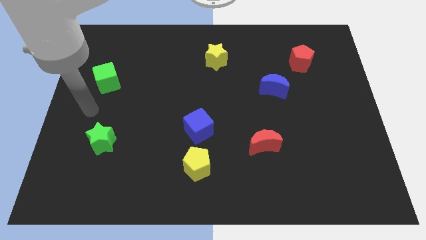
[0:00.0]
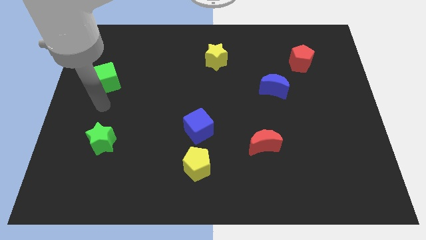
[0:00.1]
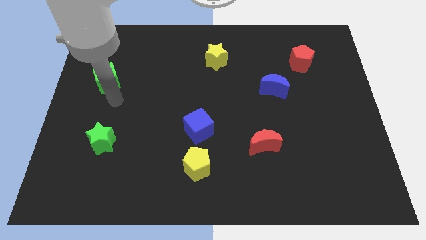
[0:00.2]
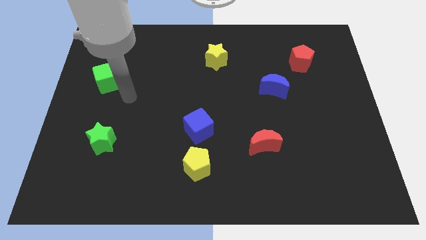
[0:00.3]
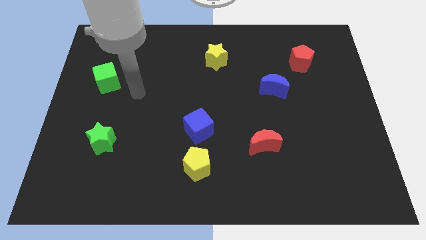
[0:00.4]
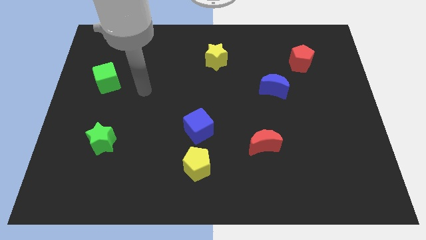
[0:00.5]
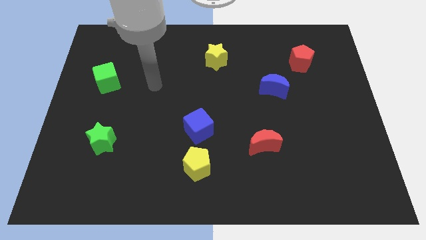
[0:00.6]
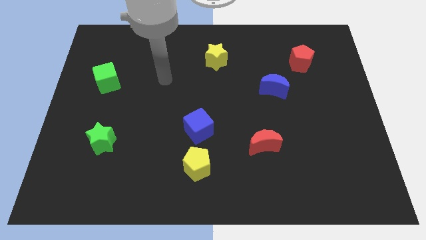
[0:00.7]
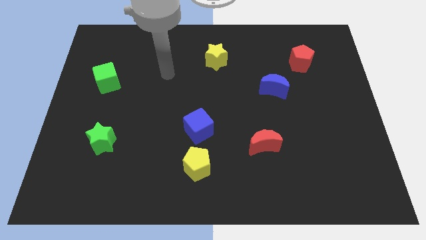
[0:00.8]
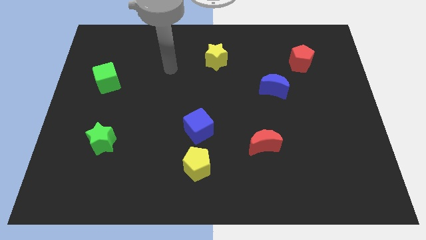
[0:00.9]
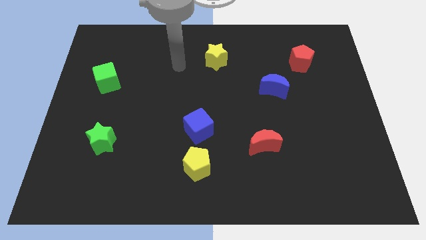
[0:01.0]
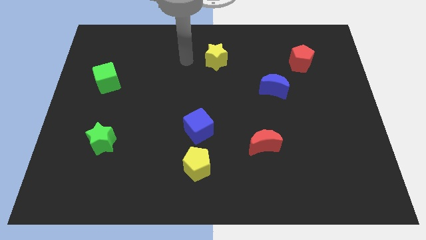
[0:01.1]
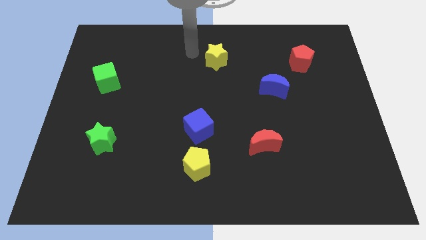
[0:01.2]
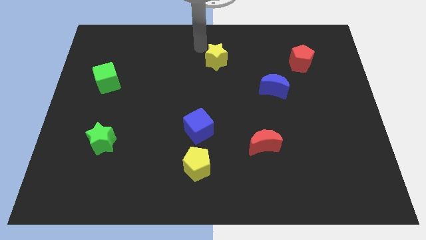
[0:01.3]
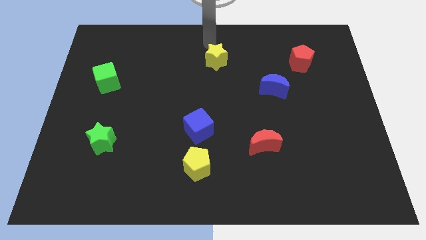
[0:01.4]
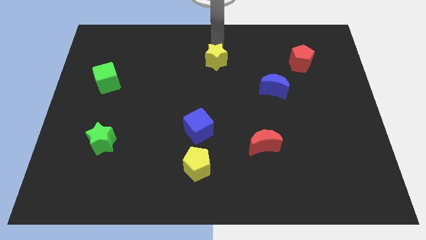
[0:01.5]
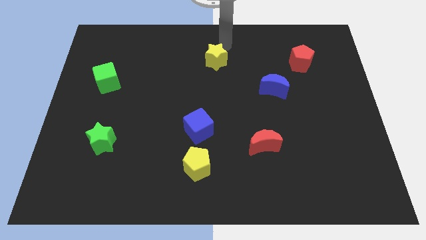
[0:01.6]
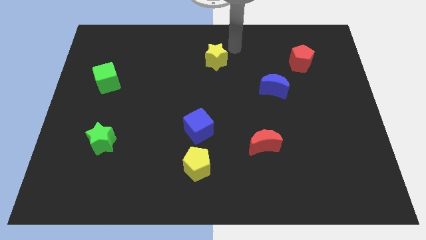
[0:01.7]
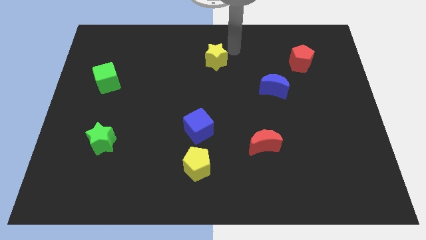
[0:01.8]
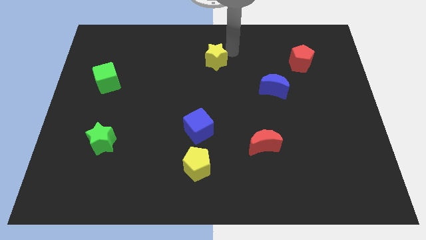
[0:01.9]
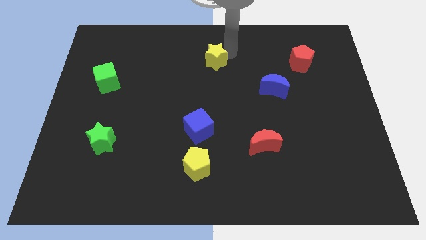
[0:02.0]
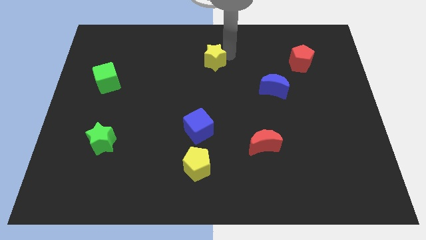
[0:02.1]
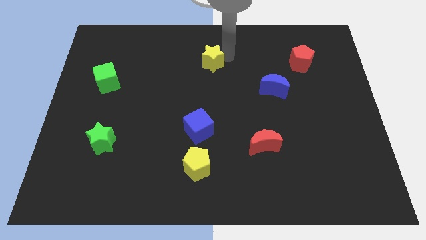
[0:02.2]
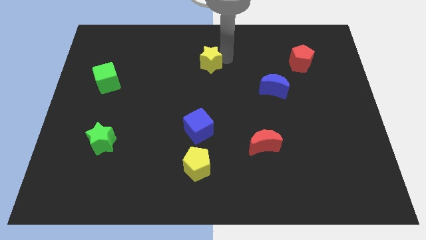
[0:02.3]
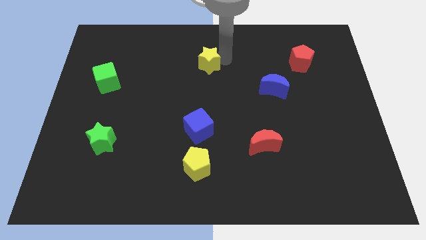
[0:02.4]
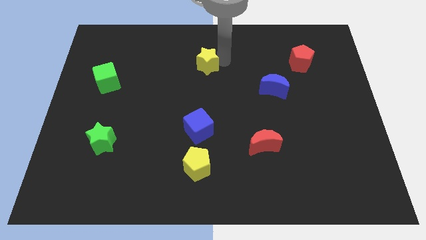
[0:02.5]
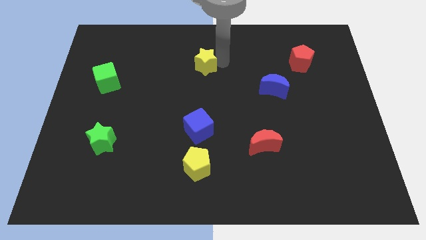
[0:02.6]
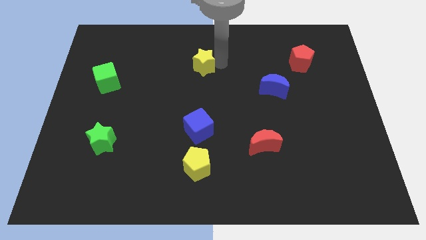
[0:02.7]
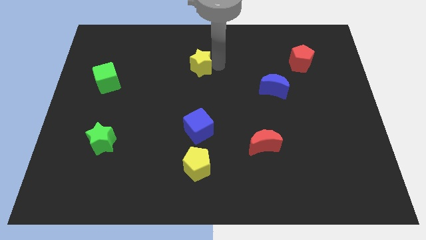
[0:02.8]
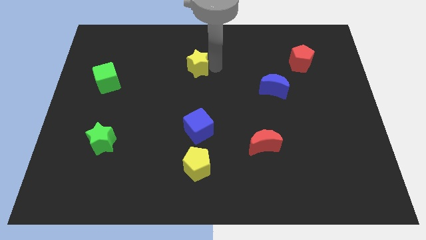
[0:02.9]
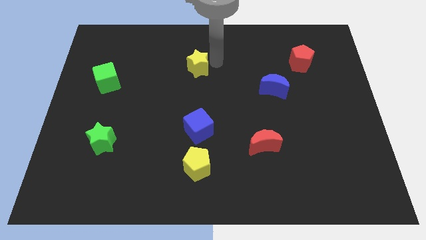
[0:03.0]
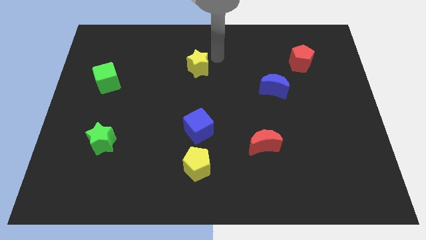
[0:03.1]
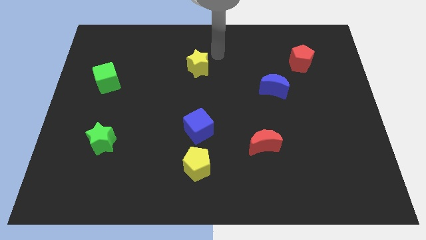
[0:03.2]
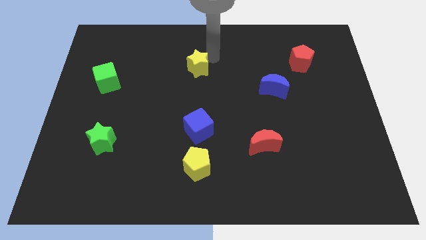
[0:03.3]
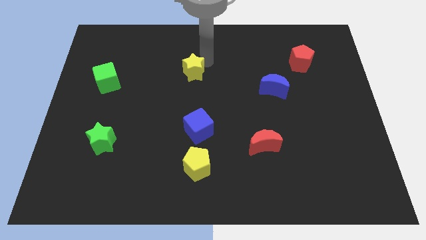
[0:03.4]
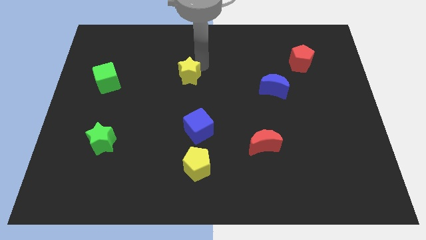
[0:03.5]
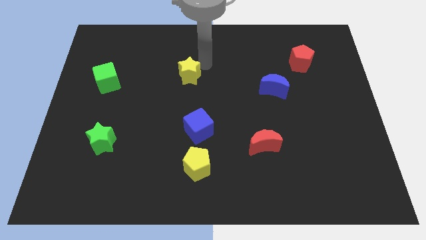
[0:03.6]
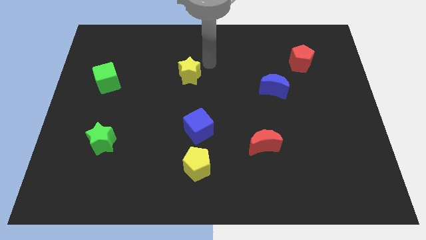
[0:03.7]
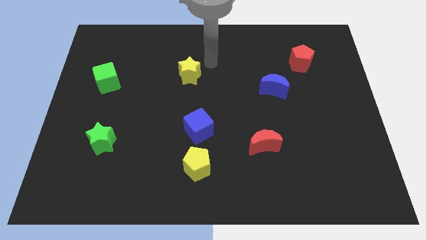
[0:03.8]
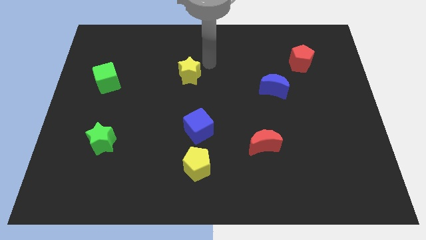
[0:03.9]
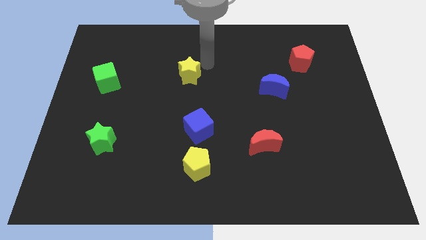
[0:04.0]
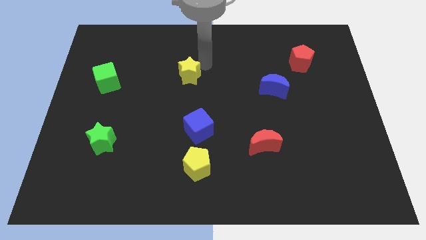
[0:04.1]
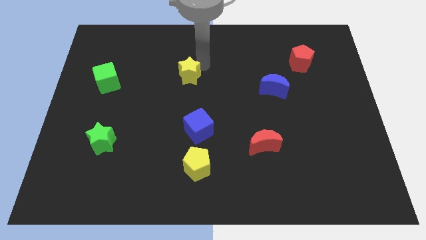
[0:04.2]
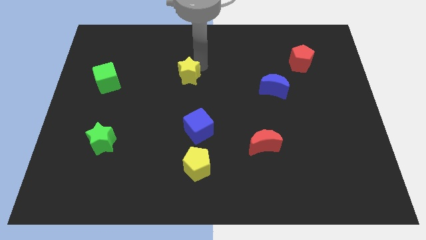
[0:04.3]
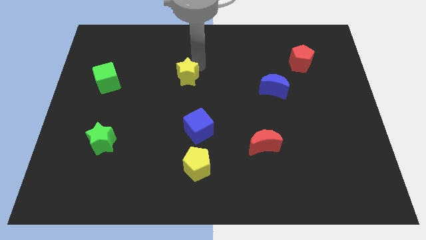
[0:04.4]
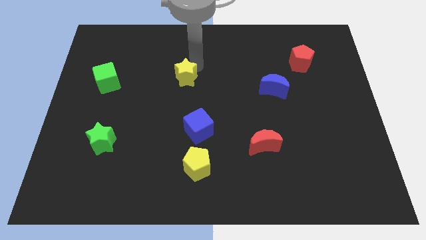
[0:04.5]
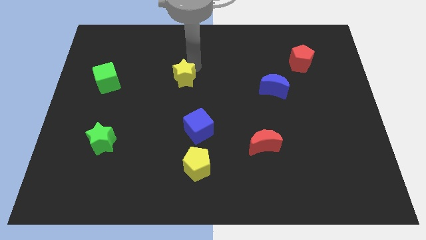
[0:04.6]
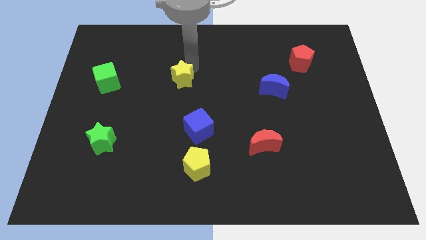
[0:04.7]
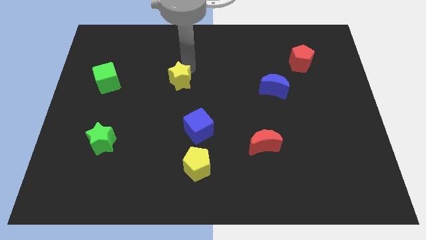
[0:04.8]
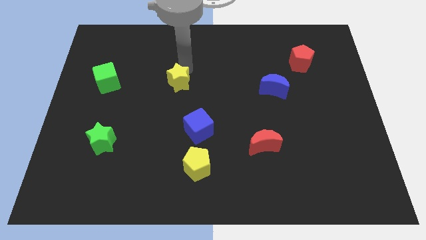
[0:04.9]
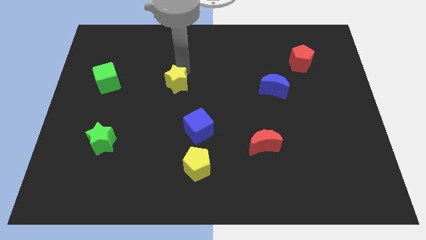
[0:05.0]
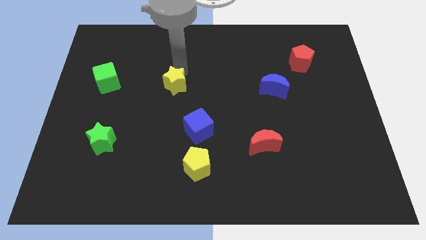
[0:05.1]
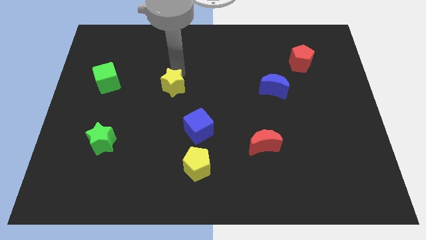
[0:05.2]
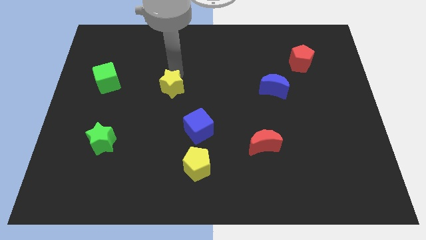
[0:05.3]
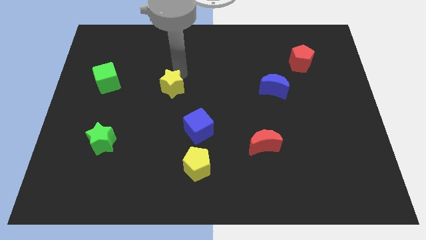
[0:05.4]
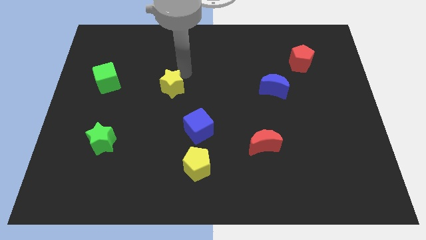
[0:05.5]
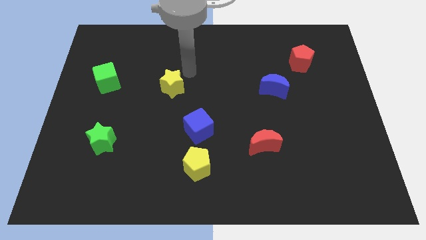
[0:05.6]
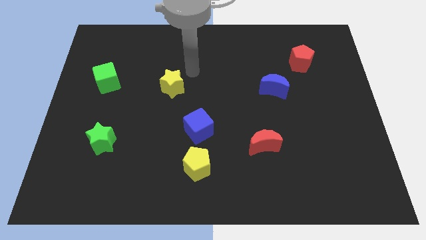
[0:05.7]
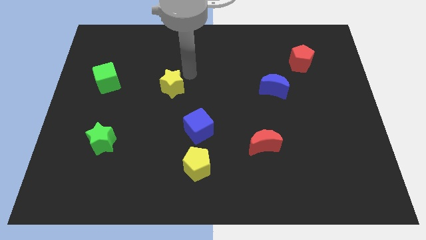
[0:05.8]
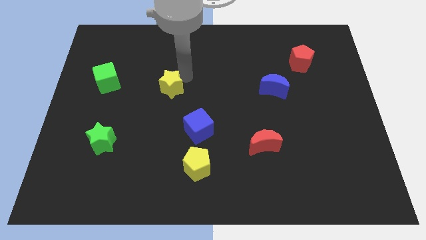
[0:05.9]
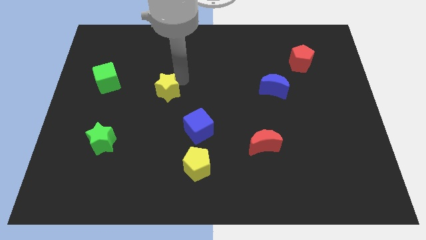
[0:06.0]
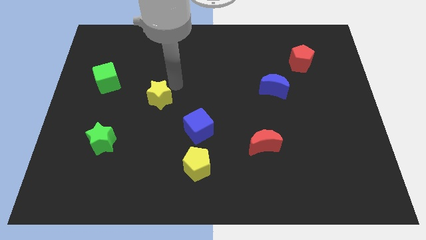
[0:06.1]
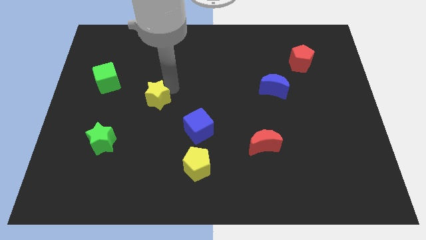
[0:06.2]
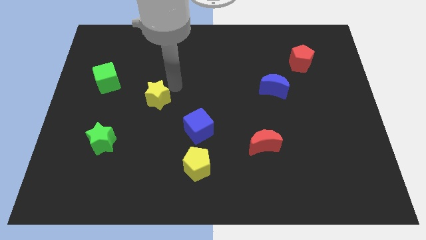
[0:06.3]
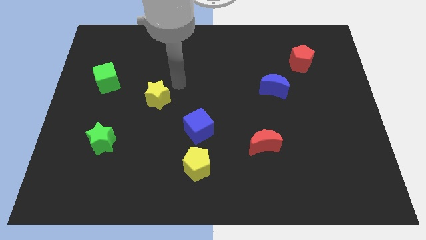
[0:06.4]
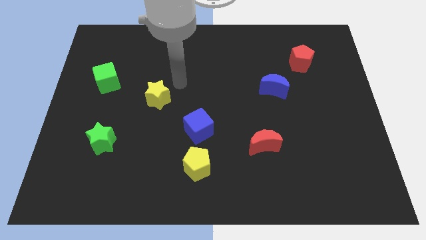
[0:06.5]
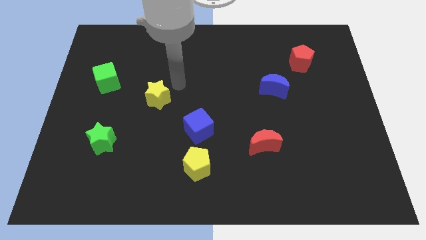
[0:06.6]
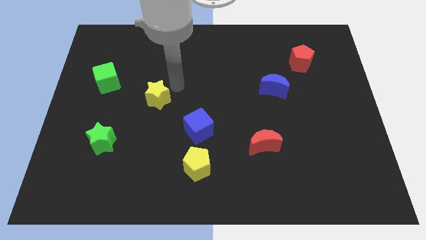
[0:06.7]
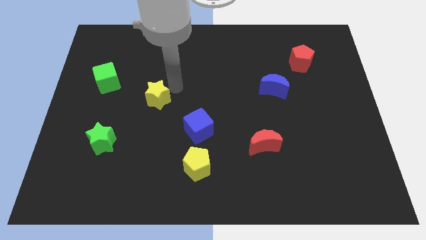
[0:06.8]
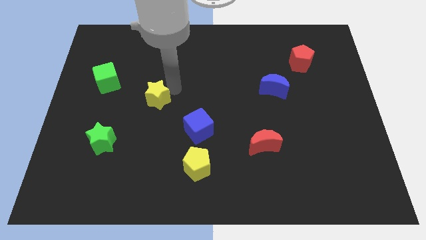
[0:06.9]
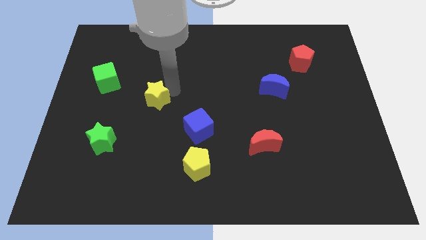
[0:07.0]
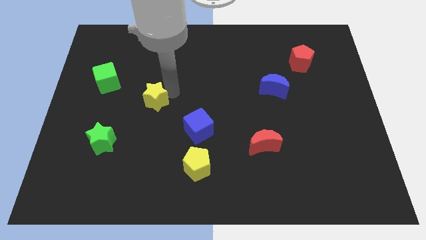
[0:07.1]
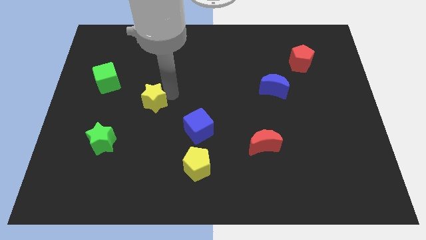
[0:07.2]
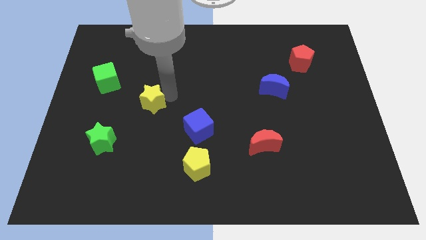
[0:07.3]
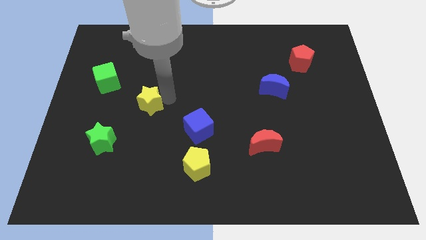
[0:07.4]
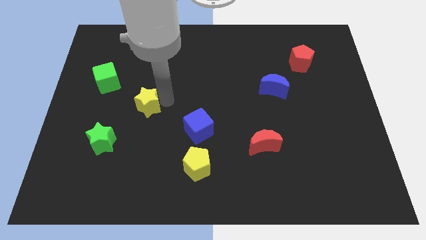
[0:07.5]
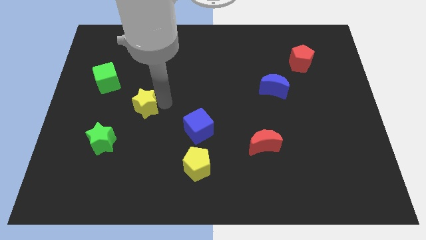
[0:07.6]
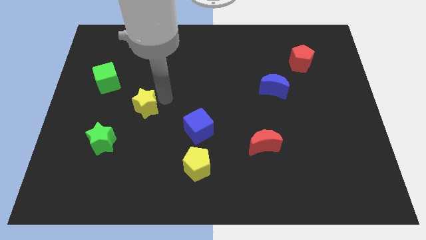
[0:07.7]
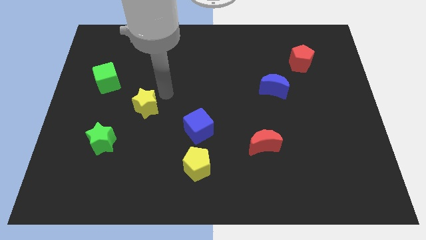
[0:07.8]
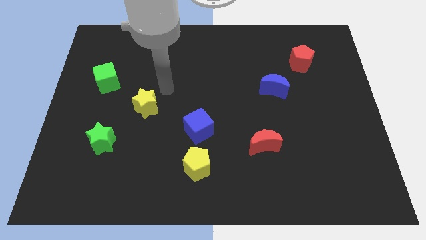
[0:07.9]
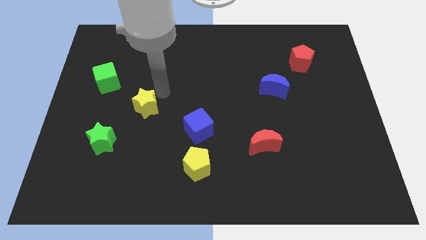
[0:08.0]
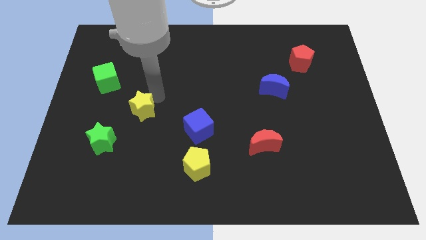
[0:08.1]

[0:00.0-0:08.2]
put the yellow star diagonally up and to the right of the green star
